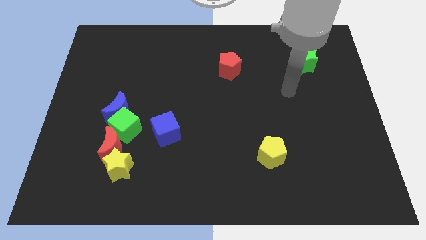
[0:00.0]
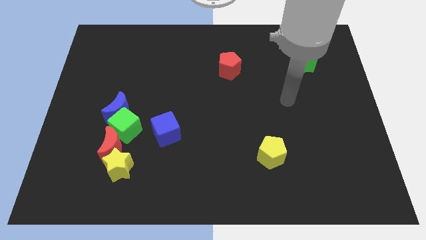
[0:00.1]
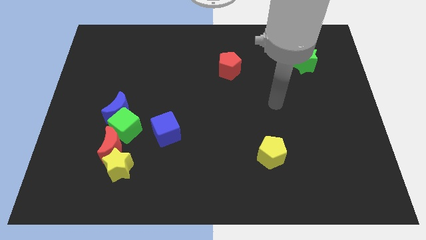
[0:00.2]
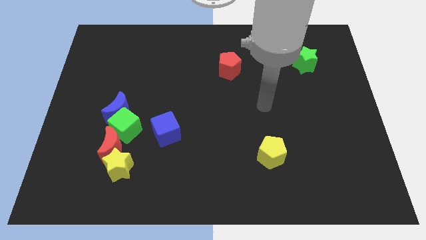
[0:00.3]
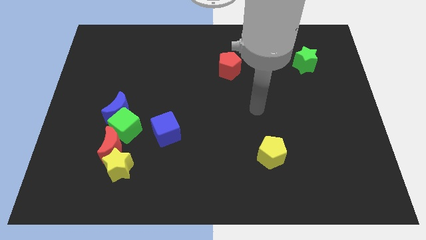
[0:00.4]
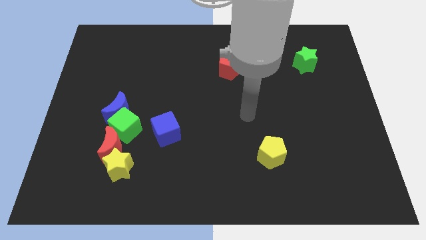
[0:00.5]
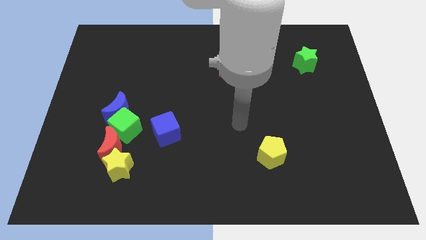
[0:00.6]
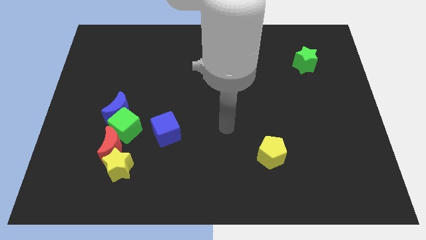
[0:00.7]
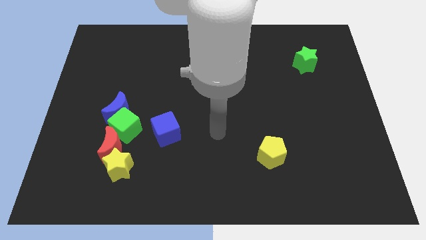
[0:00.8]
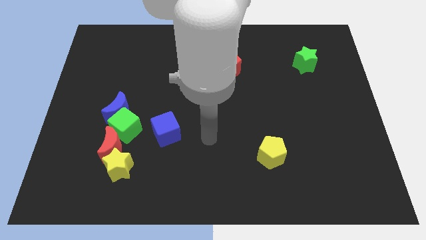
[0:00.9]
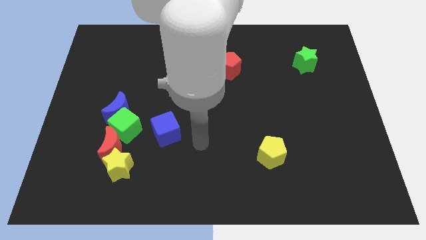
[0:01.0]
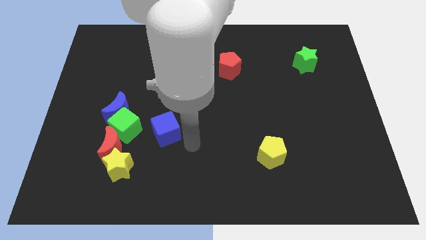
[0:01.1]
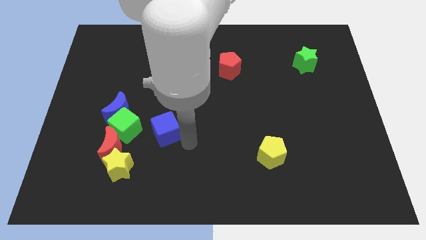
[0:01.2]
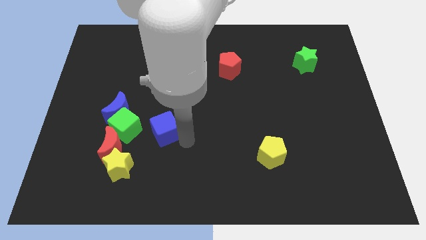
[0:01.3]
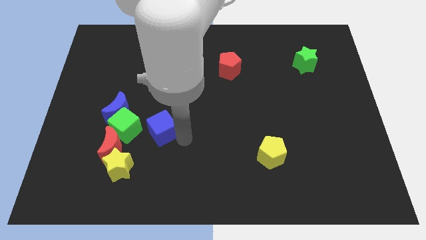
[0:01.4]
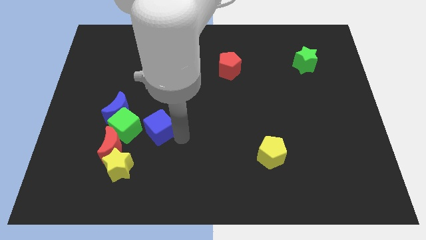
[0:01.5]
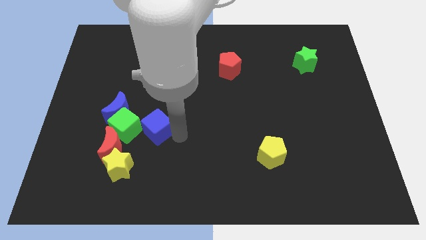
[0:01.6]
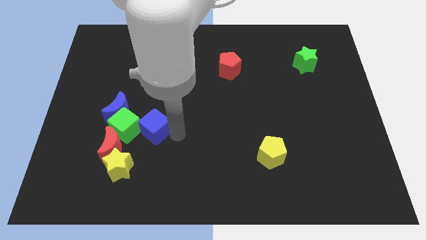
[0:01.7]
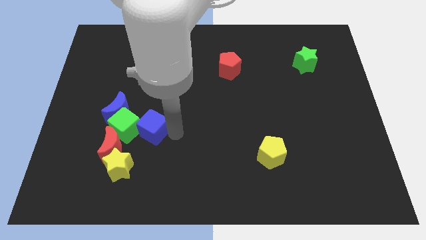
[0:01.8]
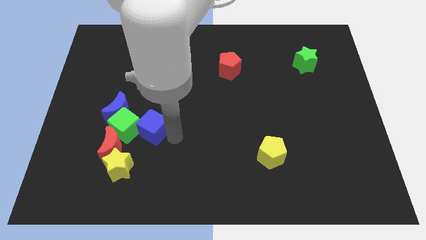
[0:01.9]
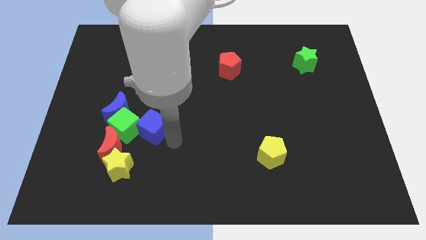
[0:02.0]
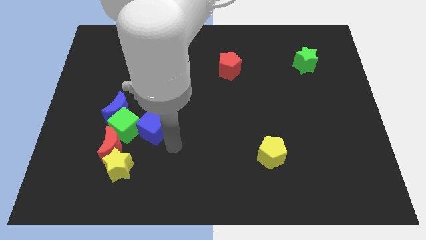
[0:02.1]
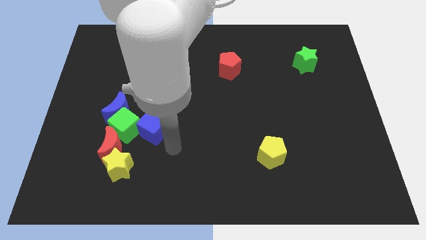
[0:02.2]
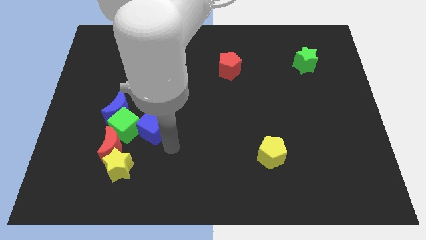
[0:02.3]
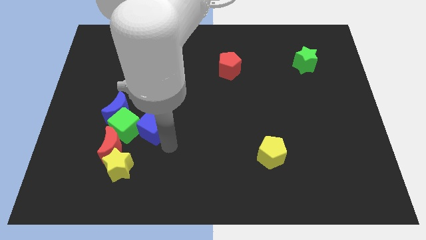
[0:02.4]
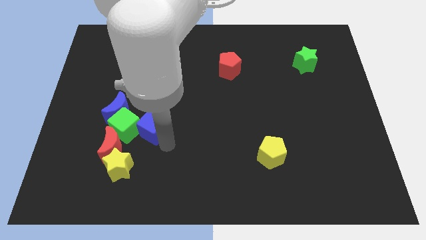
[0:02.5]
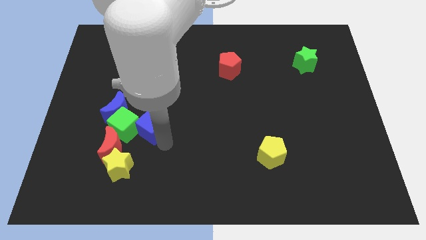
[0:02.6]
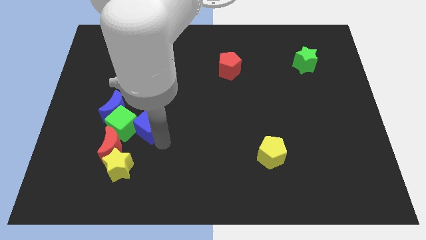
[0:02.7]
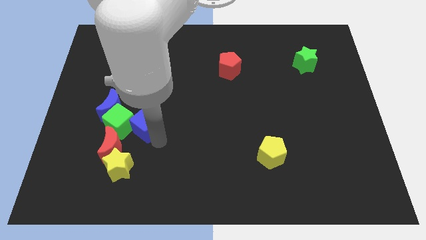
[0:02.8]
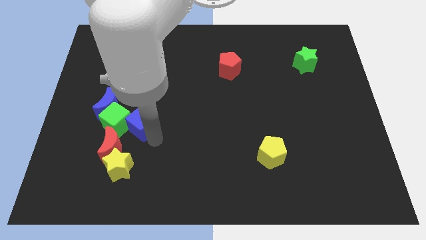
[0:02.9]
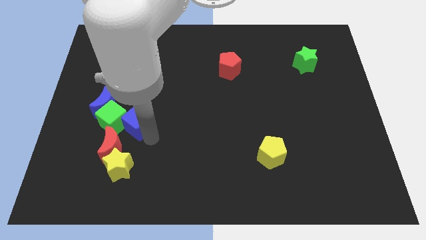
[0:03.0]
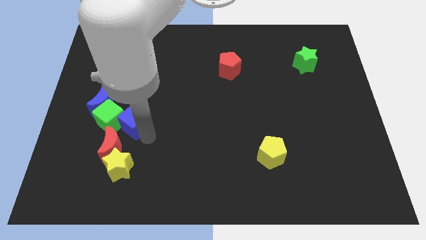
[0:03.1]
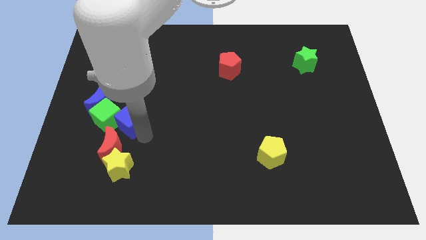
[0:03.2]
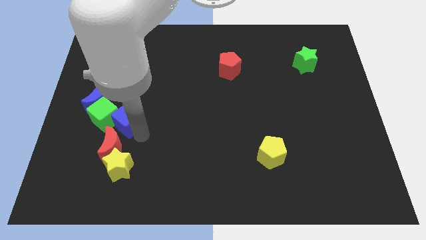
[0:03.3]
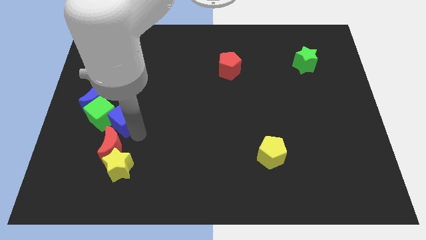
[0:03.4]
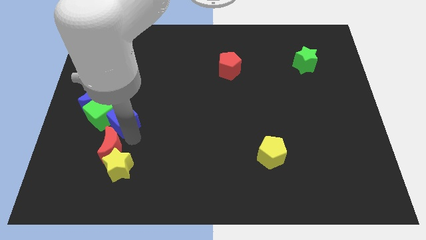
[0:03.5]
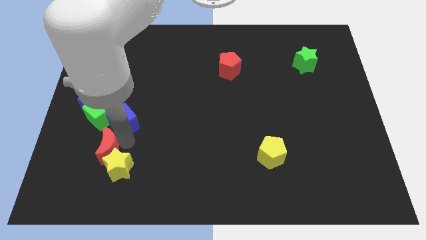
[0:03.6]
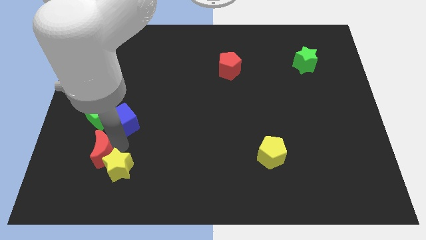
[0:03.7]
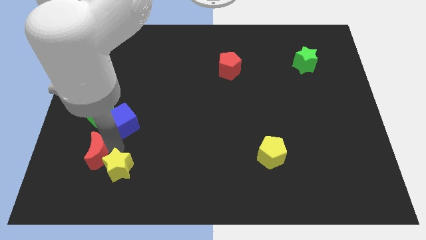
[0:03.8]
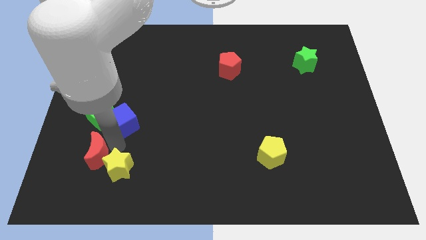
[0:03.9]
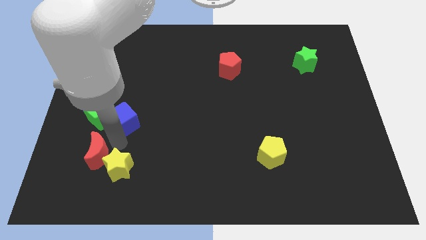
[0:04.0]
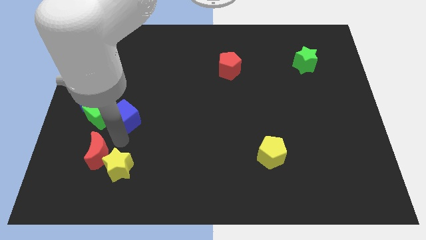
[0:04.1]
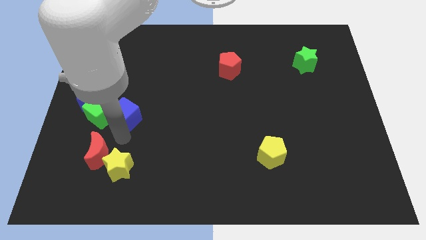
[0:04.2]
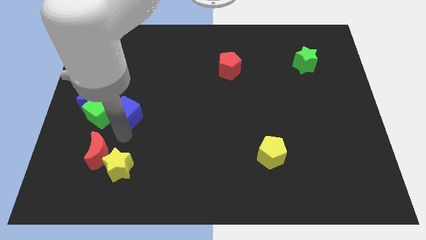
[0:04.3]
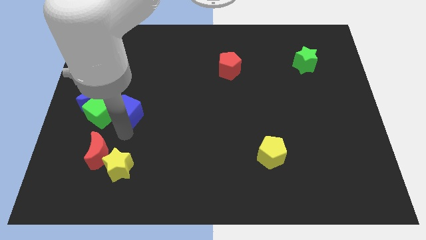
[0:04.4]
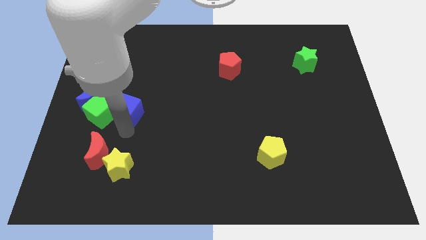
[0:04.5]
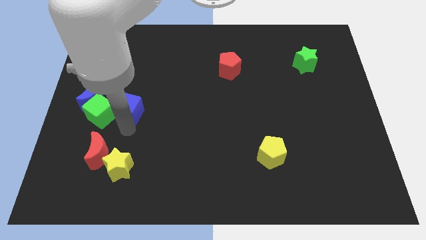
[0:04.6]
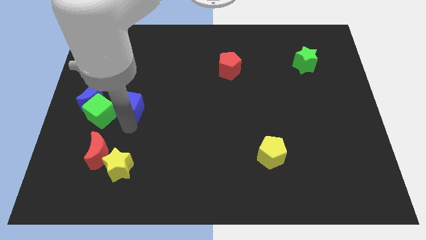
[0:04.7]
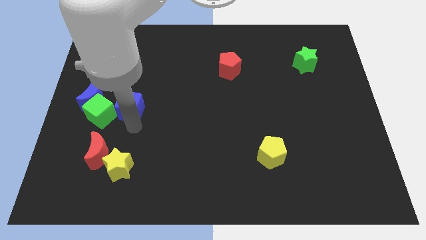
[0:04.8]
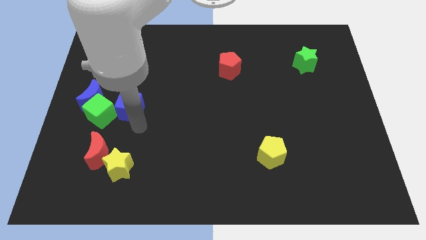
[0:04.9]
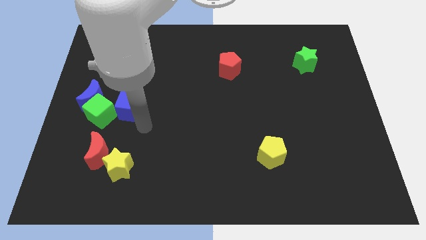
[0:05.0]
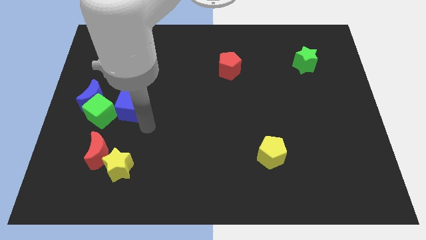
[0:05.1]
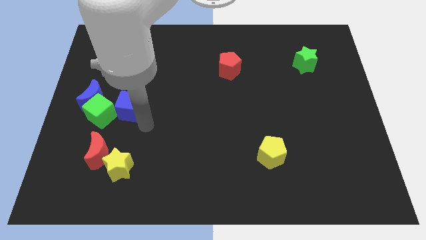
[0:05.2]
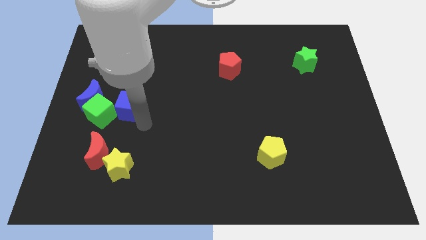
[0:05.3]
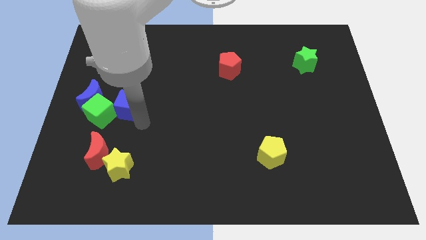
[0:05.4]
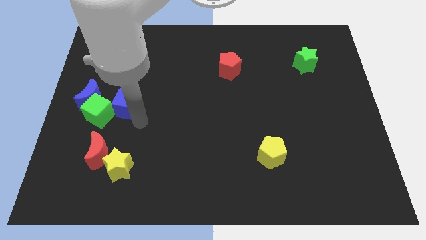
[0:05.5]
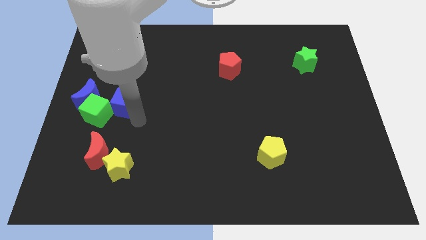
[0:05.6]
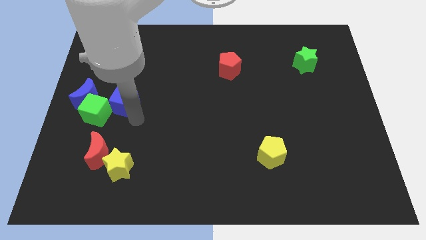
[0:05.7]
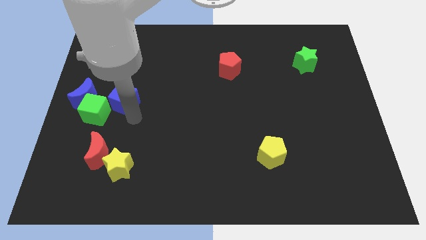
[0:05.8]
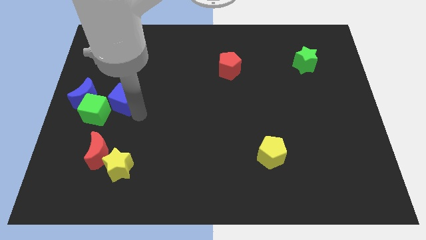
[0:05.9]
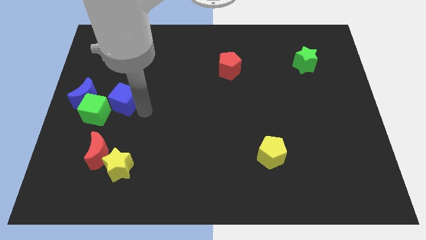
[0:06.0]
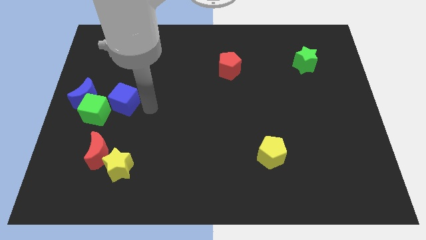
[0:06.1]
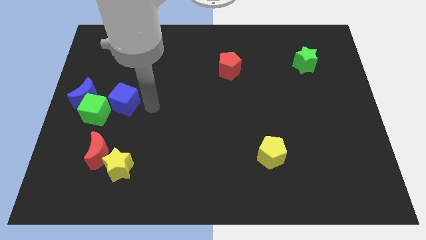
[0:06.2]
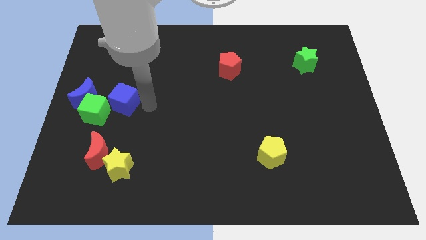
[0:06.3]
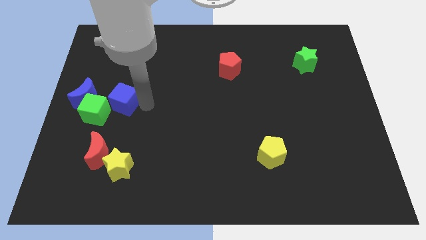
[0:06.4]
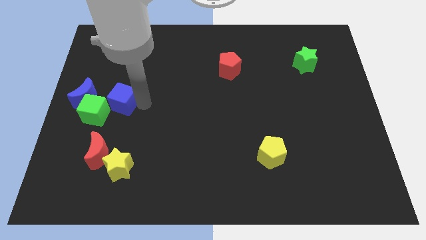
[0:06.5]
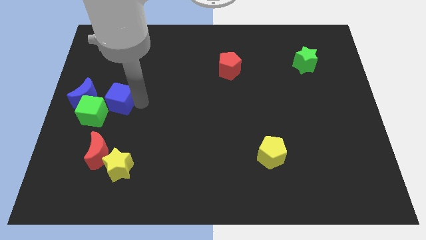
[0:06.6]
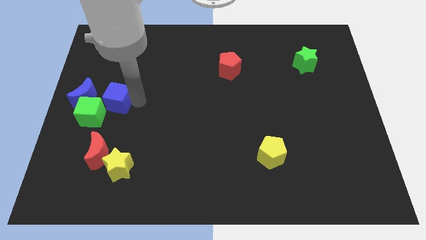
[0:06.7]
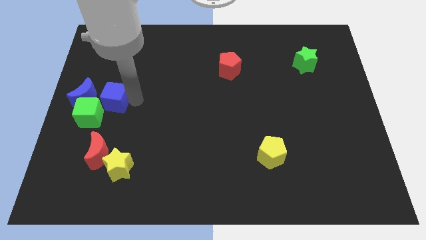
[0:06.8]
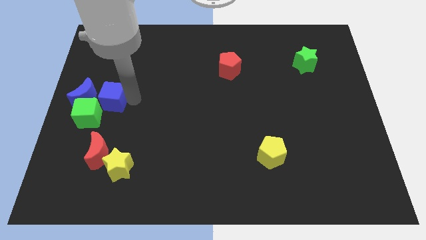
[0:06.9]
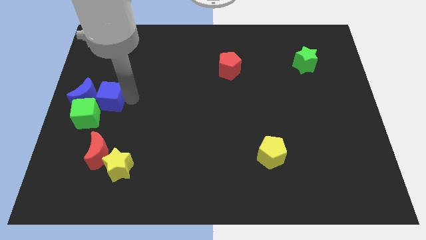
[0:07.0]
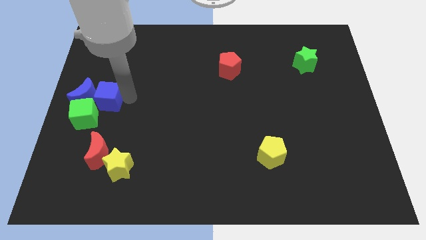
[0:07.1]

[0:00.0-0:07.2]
slide the blue cube to the left side of the board

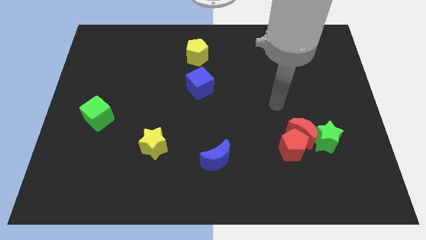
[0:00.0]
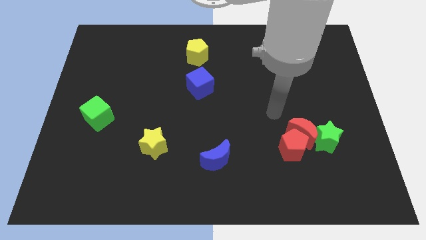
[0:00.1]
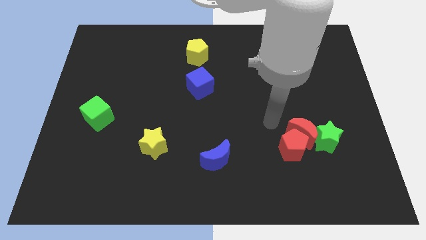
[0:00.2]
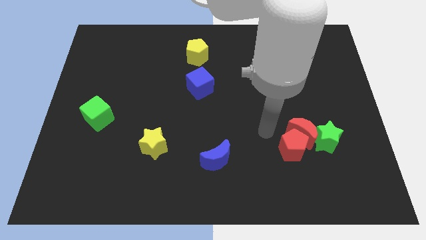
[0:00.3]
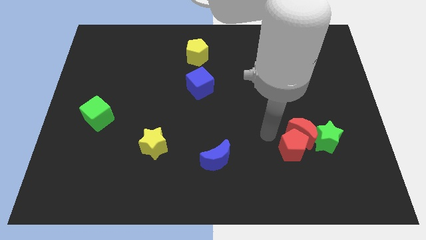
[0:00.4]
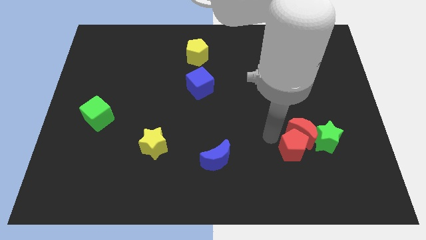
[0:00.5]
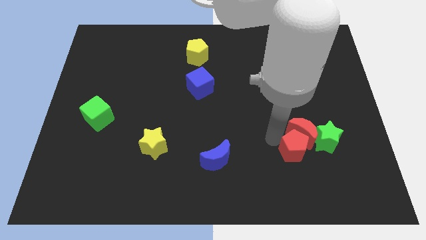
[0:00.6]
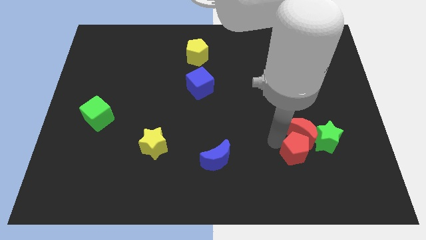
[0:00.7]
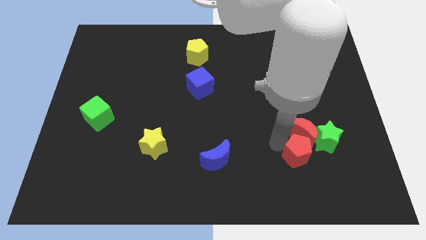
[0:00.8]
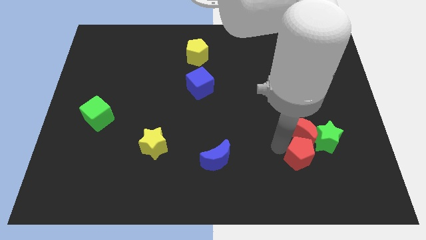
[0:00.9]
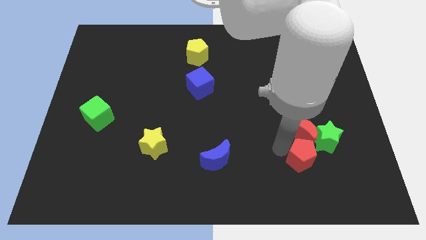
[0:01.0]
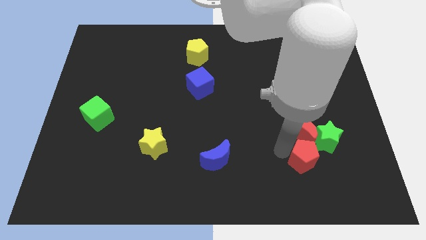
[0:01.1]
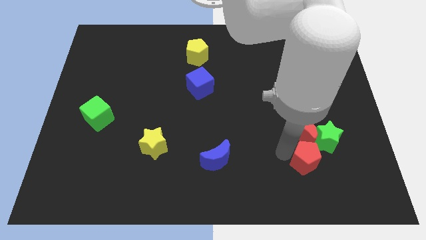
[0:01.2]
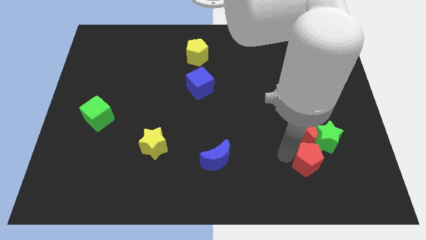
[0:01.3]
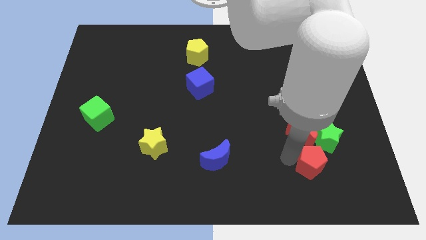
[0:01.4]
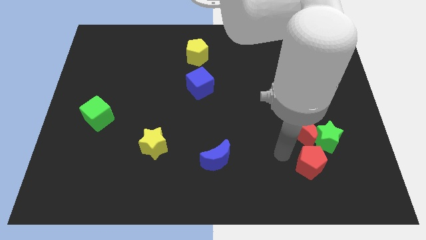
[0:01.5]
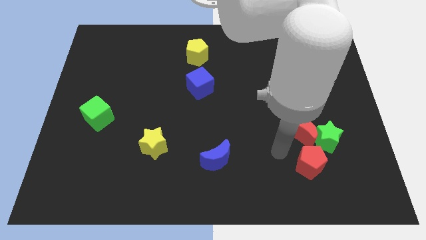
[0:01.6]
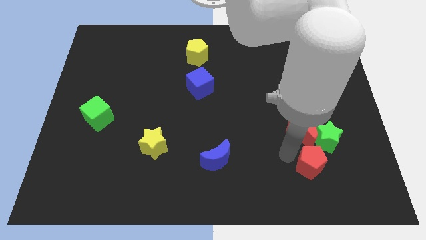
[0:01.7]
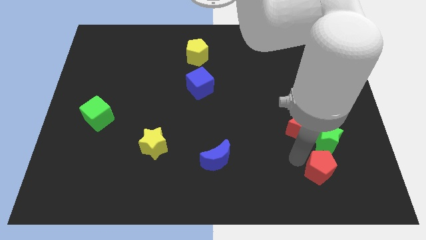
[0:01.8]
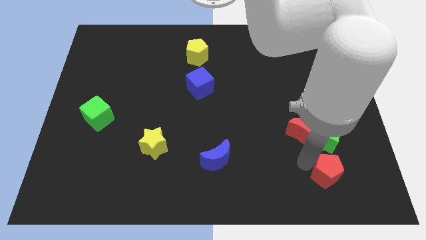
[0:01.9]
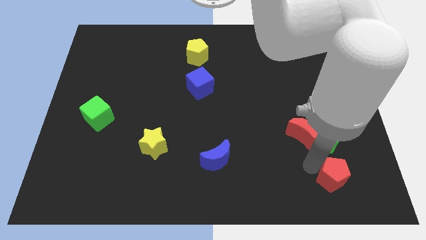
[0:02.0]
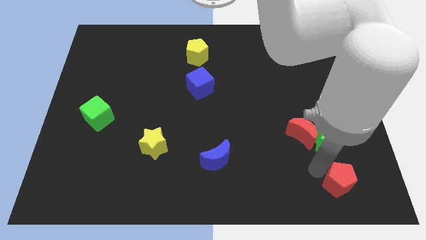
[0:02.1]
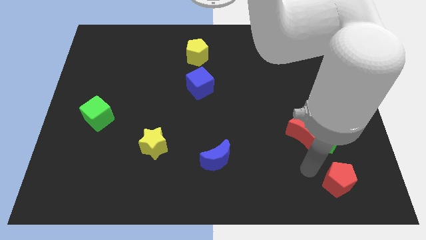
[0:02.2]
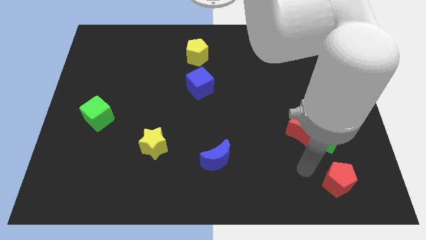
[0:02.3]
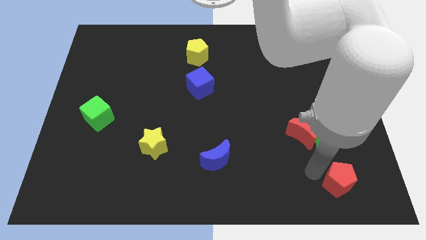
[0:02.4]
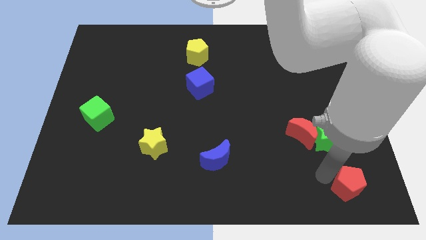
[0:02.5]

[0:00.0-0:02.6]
put the red pentagon to the bottom right of the board
